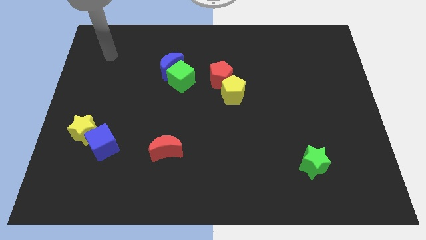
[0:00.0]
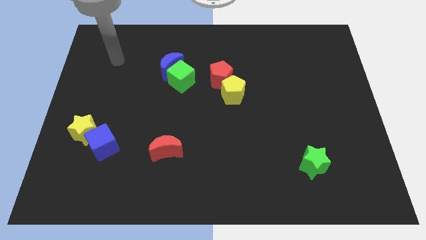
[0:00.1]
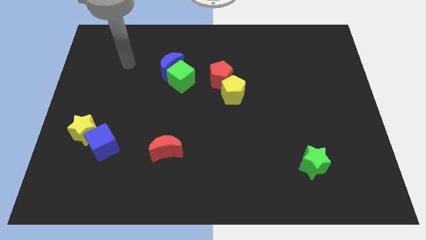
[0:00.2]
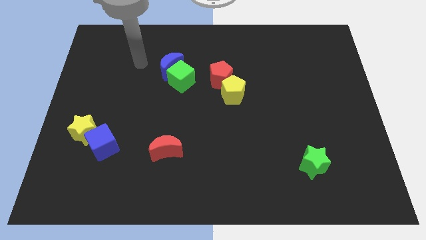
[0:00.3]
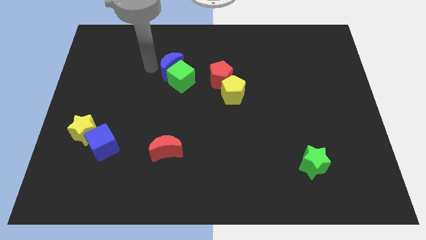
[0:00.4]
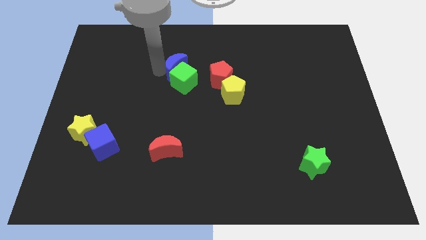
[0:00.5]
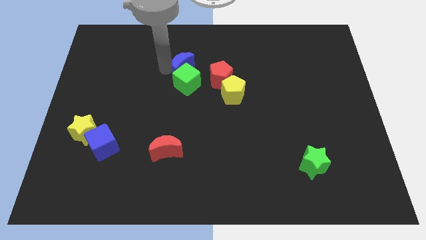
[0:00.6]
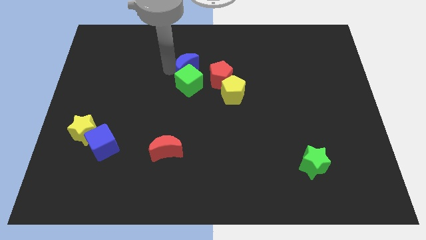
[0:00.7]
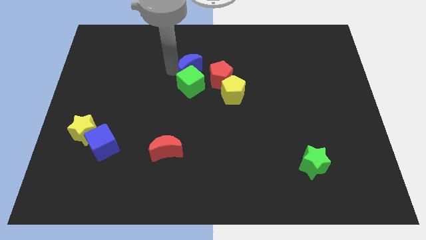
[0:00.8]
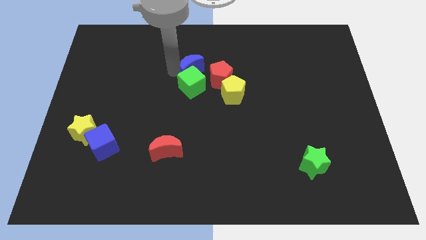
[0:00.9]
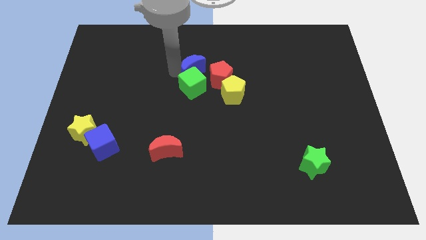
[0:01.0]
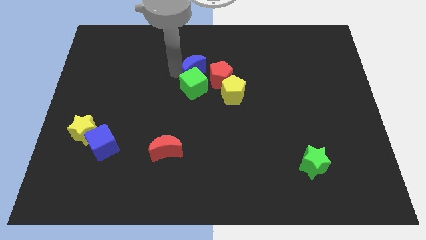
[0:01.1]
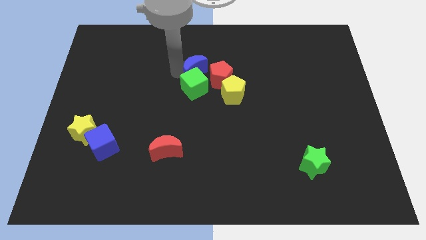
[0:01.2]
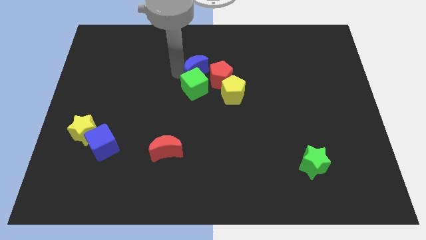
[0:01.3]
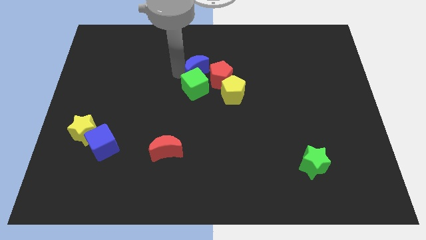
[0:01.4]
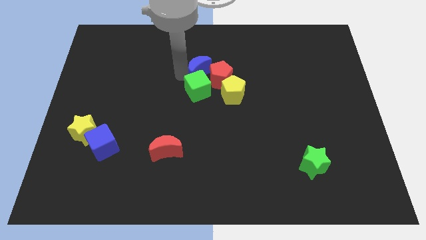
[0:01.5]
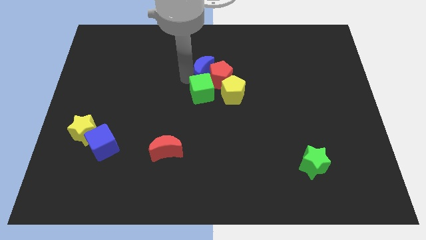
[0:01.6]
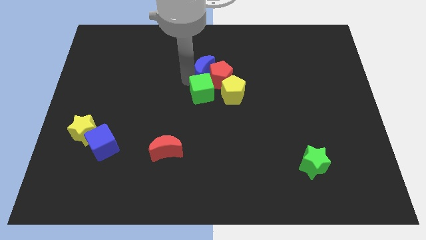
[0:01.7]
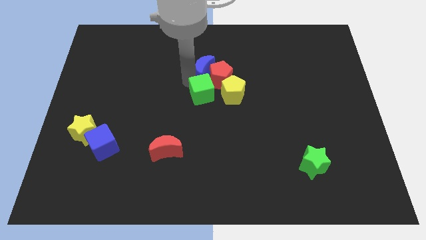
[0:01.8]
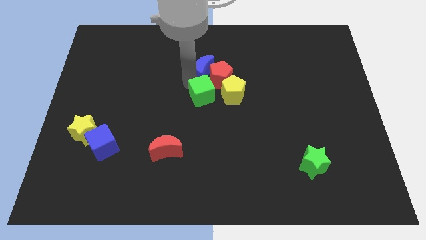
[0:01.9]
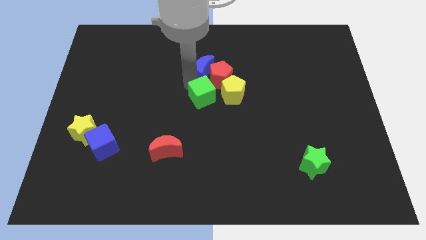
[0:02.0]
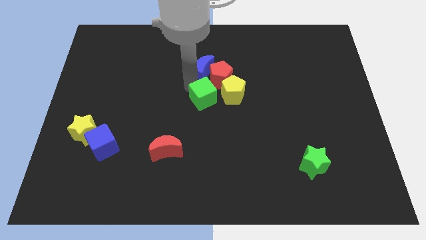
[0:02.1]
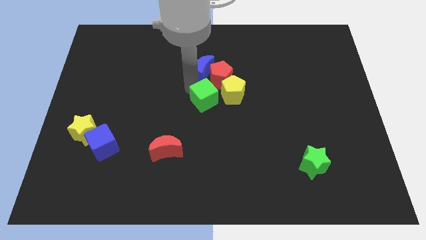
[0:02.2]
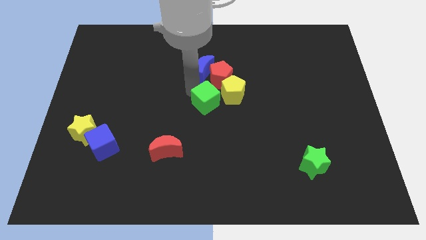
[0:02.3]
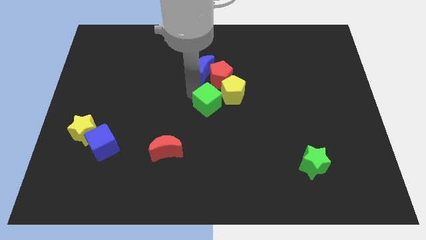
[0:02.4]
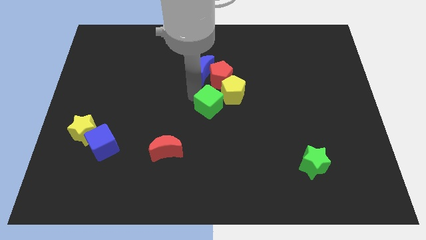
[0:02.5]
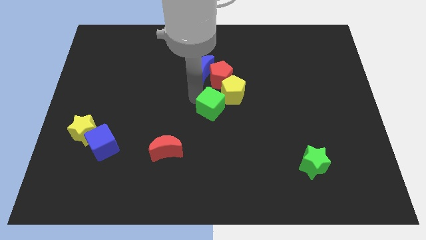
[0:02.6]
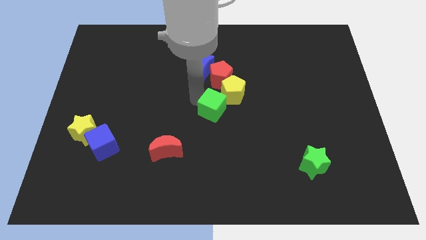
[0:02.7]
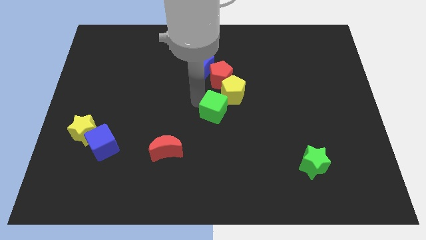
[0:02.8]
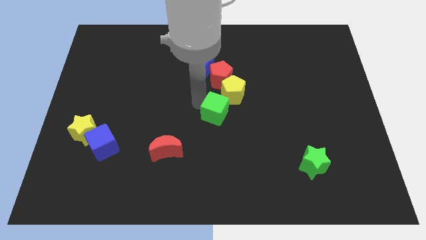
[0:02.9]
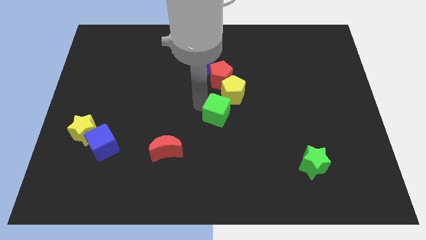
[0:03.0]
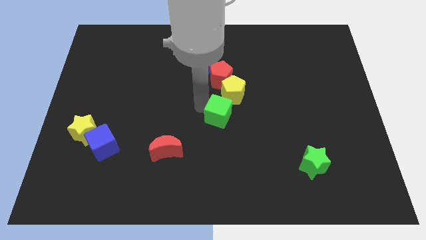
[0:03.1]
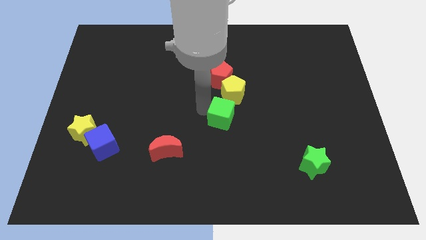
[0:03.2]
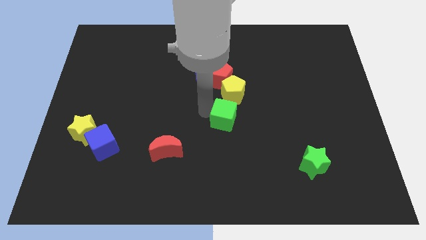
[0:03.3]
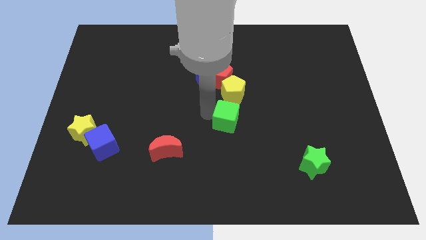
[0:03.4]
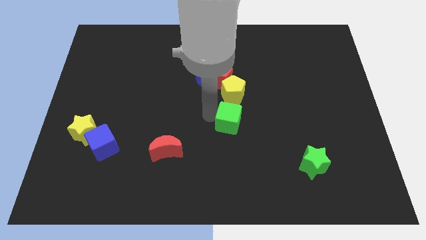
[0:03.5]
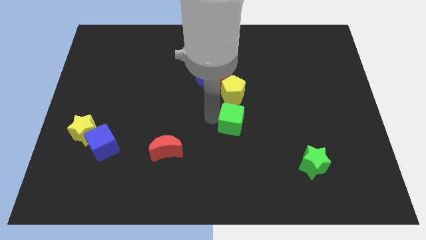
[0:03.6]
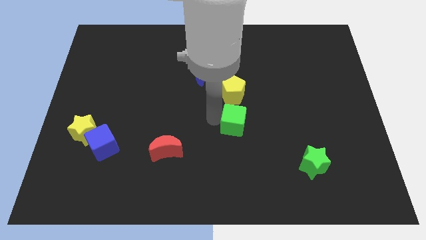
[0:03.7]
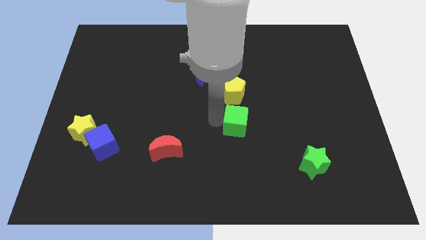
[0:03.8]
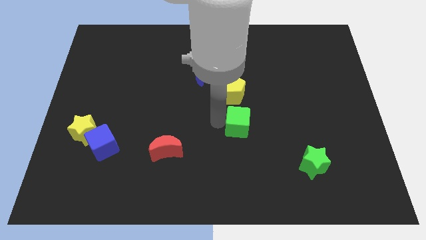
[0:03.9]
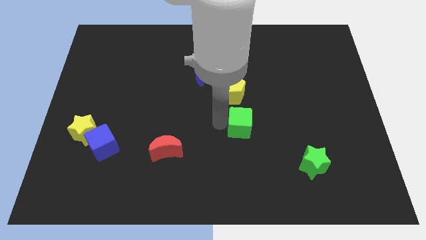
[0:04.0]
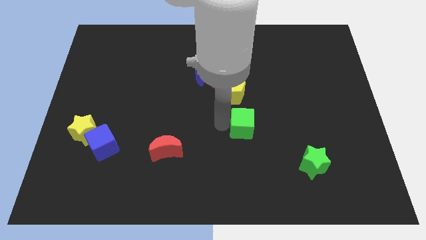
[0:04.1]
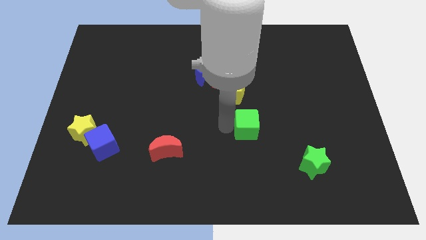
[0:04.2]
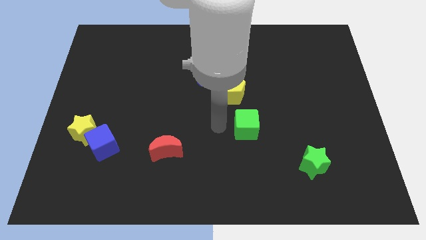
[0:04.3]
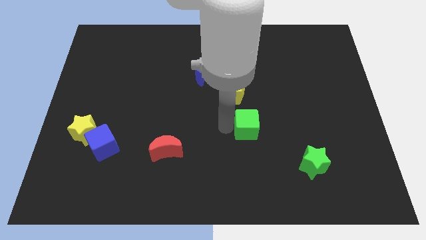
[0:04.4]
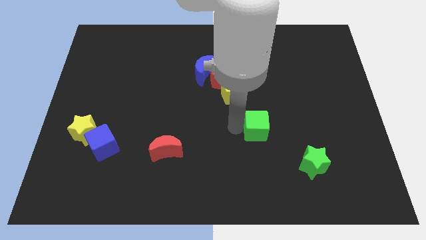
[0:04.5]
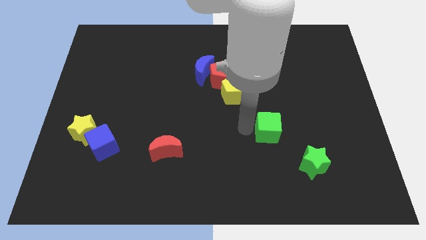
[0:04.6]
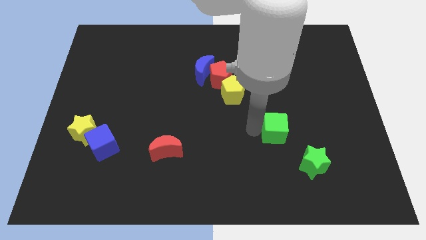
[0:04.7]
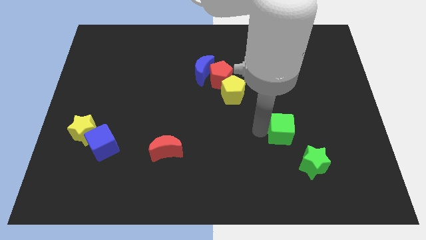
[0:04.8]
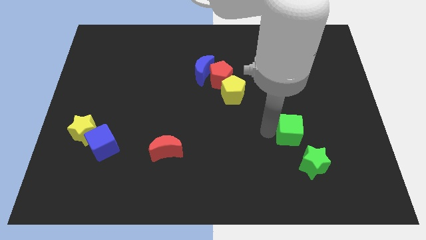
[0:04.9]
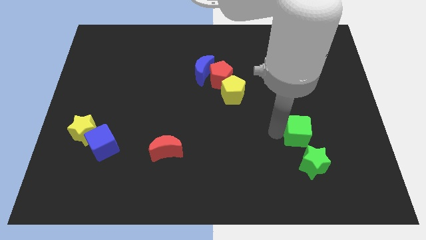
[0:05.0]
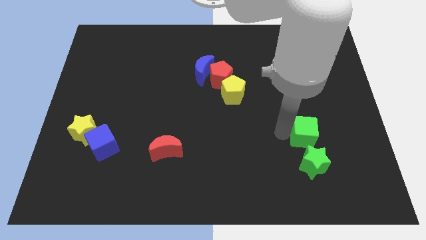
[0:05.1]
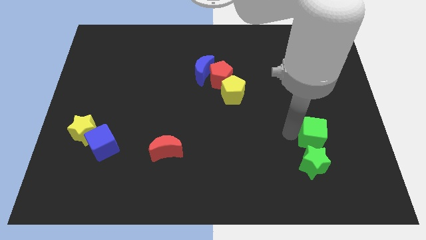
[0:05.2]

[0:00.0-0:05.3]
move the green cube to the top right side of the green star

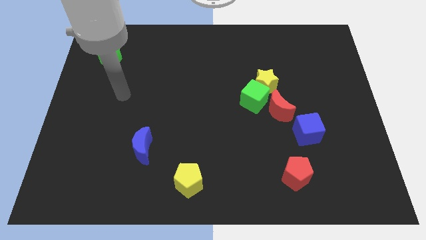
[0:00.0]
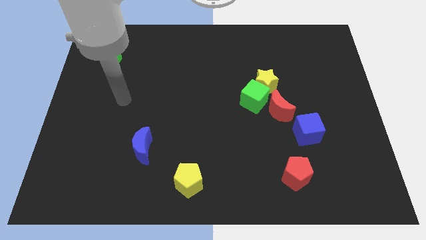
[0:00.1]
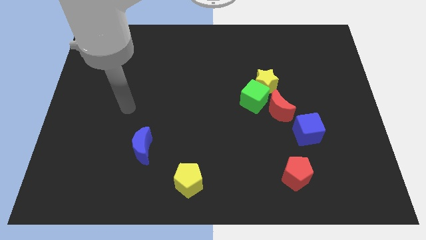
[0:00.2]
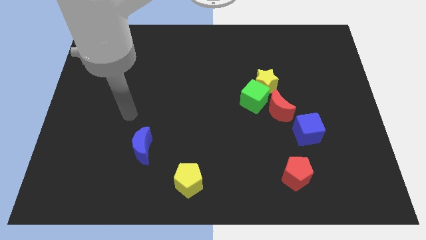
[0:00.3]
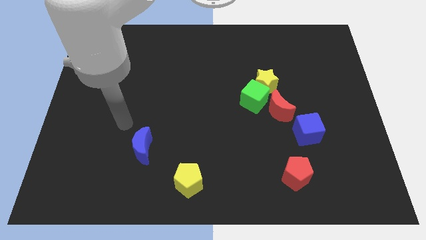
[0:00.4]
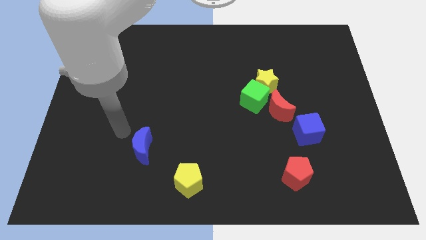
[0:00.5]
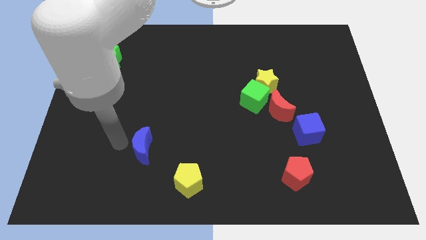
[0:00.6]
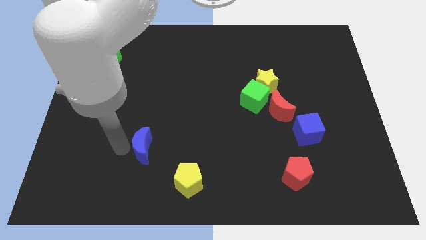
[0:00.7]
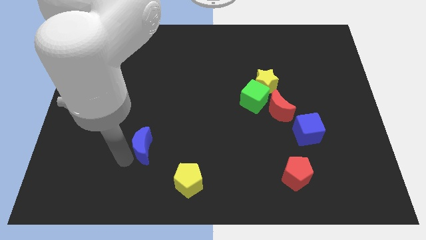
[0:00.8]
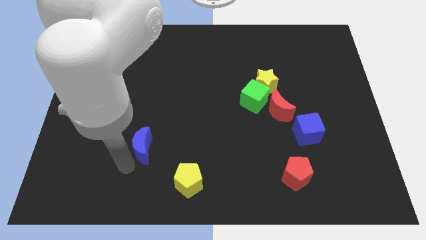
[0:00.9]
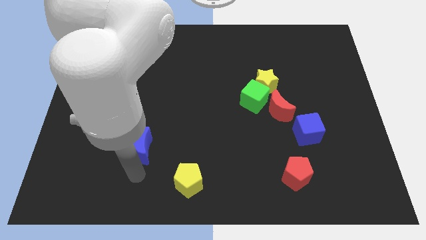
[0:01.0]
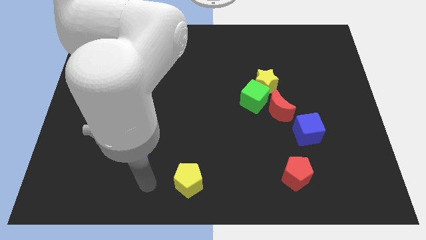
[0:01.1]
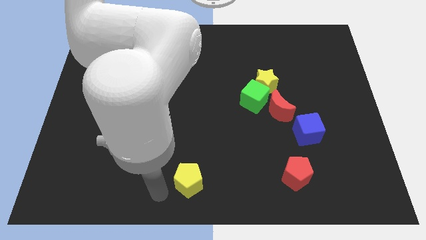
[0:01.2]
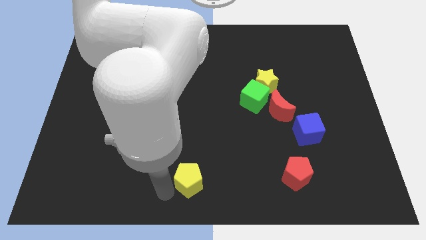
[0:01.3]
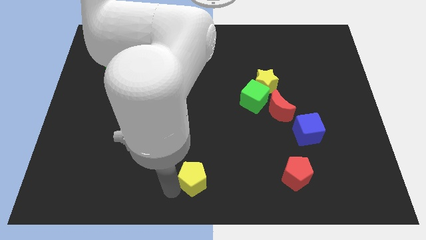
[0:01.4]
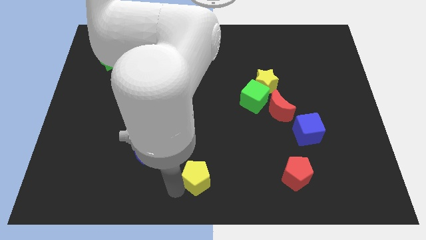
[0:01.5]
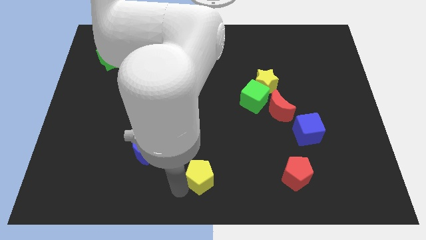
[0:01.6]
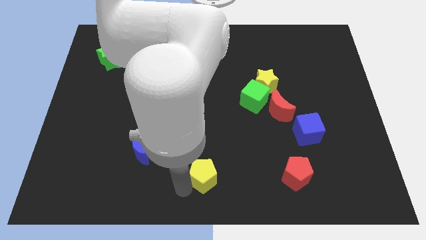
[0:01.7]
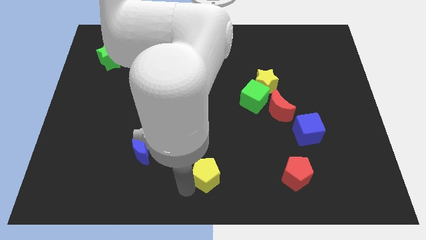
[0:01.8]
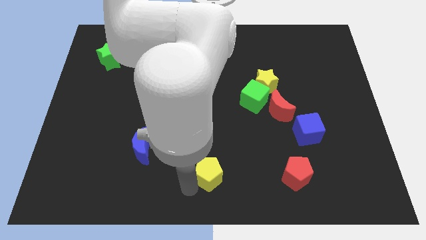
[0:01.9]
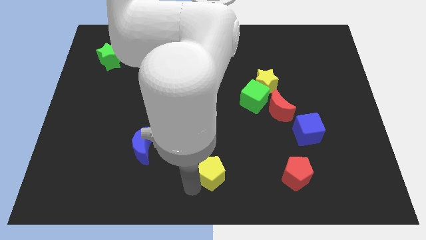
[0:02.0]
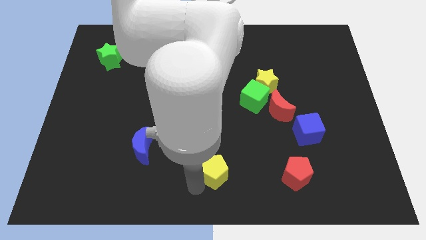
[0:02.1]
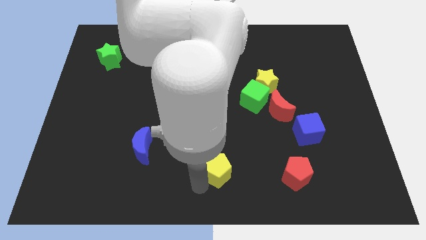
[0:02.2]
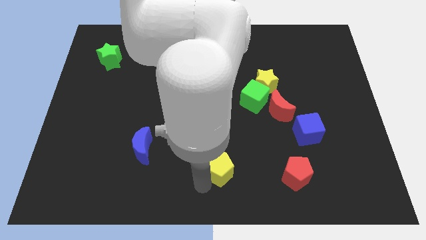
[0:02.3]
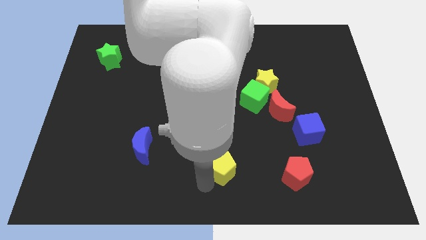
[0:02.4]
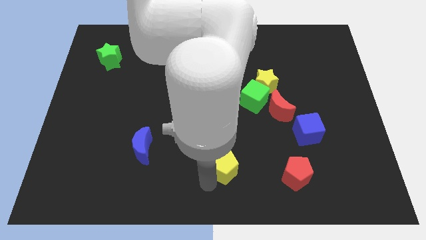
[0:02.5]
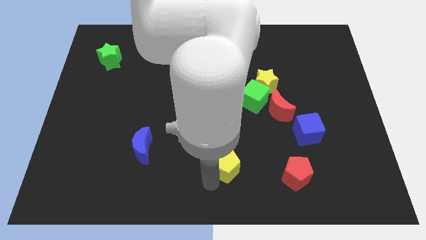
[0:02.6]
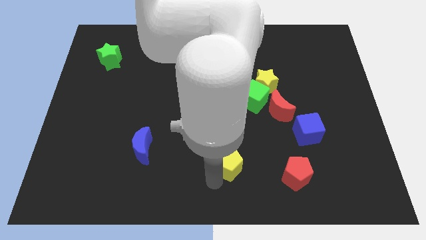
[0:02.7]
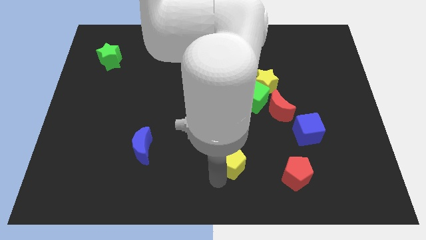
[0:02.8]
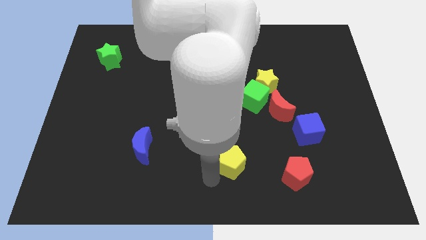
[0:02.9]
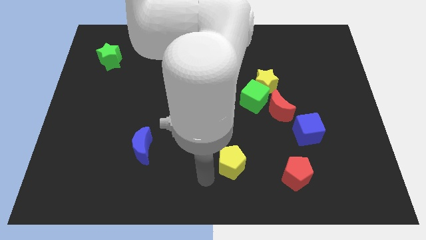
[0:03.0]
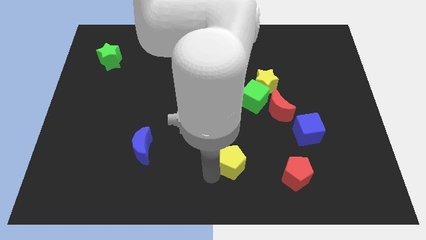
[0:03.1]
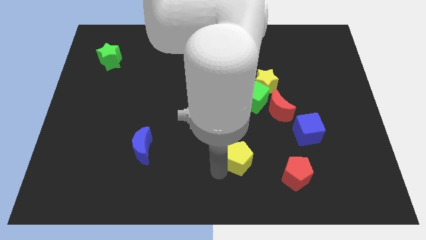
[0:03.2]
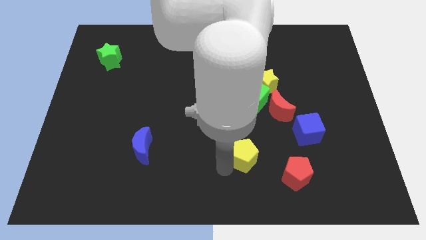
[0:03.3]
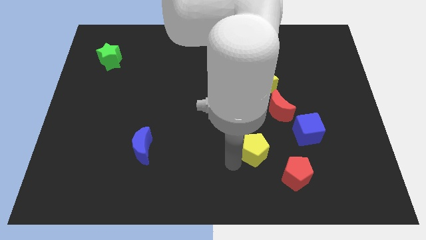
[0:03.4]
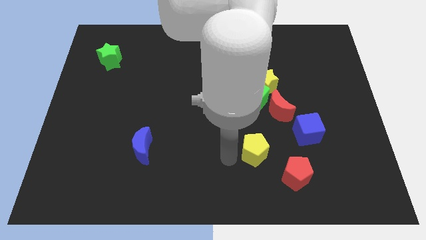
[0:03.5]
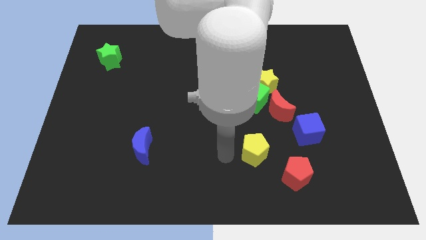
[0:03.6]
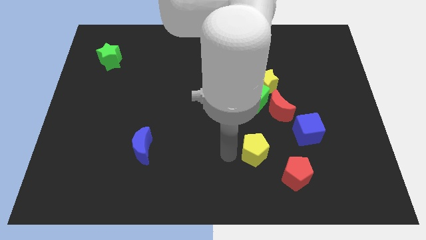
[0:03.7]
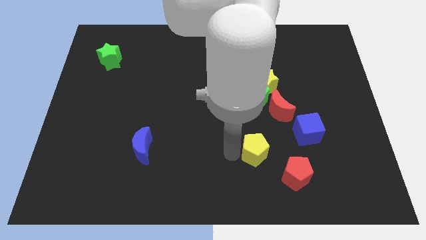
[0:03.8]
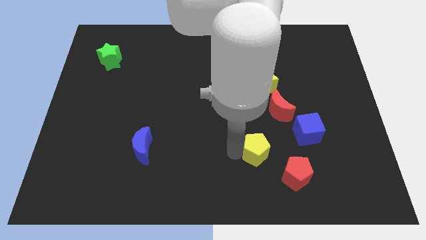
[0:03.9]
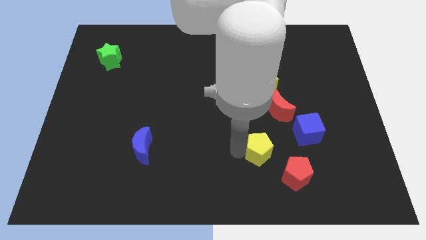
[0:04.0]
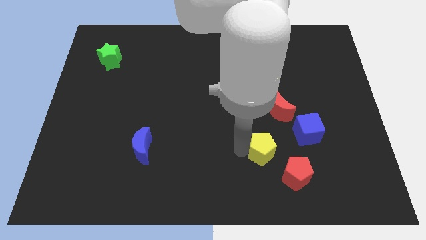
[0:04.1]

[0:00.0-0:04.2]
put the yellow pentagon below the red moon
